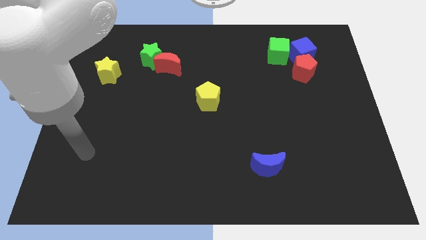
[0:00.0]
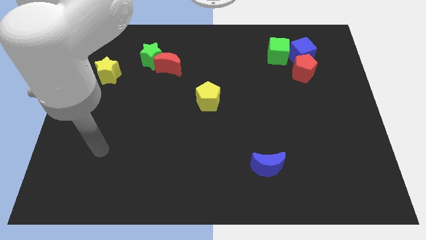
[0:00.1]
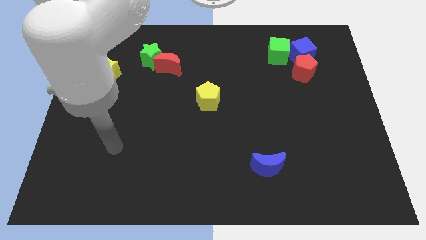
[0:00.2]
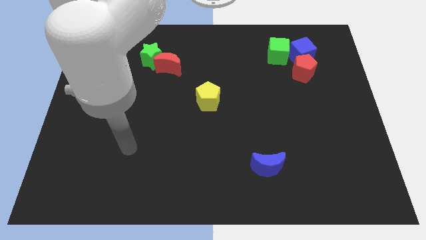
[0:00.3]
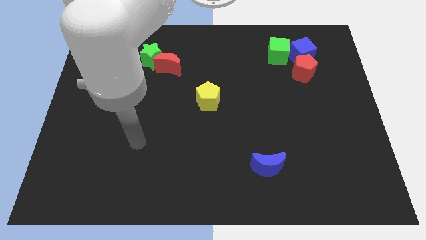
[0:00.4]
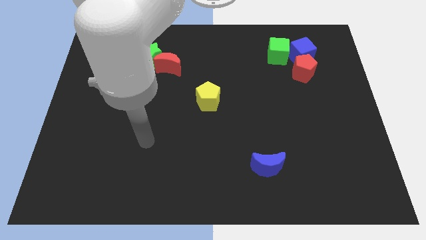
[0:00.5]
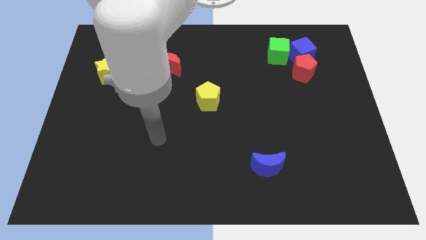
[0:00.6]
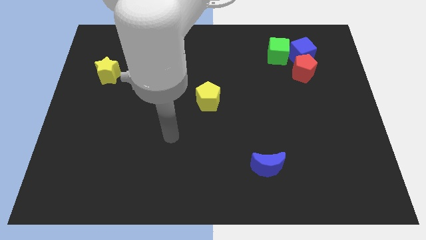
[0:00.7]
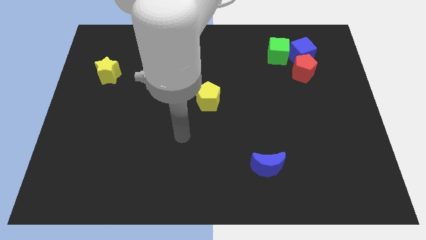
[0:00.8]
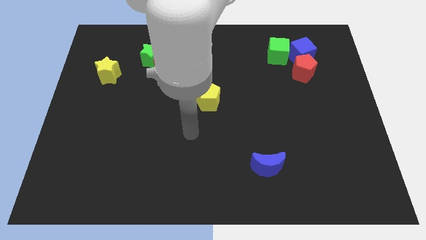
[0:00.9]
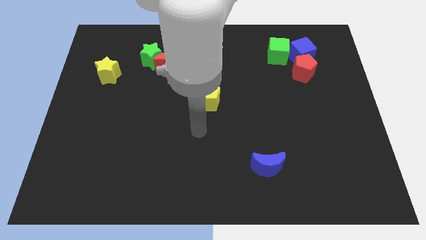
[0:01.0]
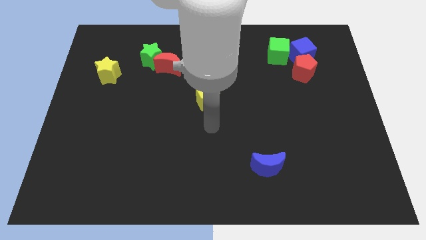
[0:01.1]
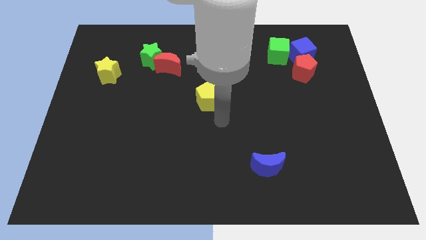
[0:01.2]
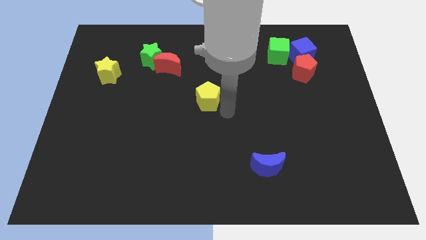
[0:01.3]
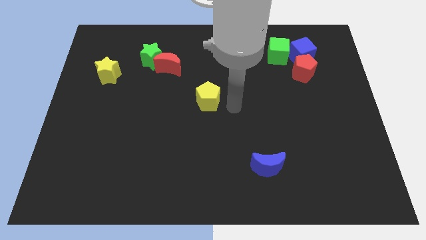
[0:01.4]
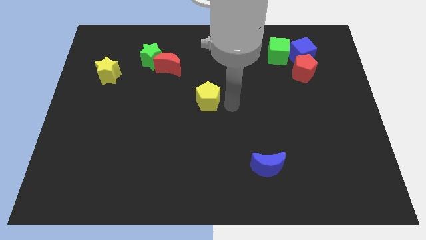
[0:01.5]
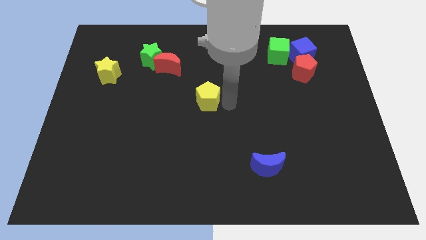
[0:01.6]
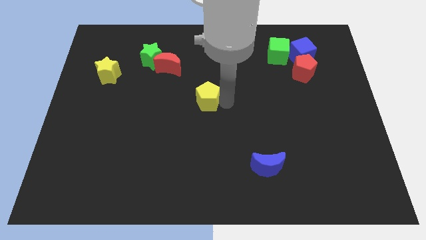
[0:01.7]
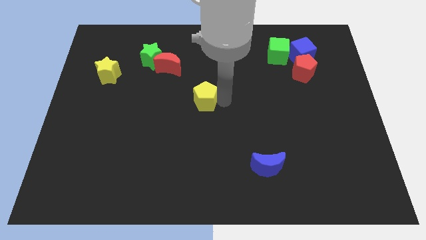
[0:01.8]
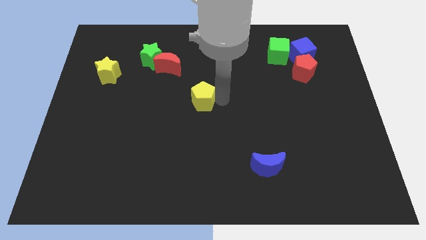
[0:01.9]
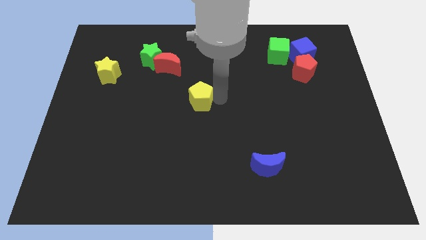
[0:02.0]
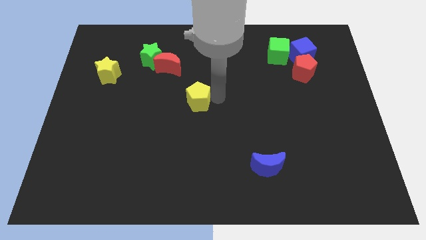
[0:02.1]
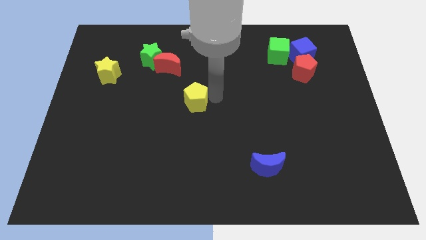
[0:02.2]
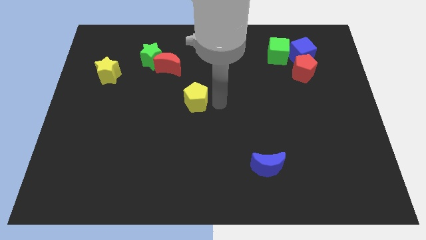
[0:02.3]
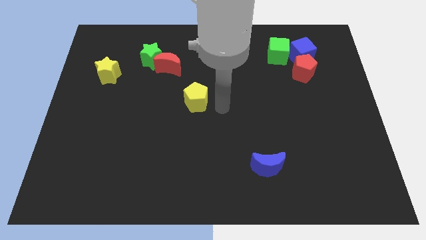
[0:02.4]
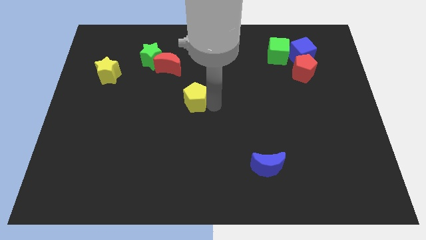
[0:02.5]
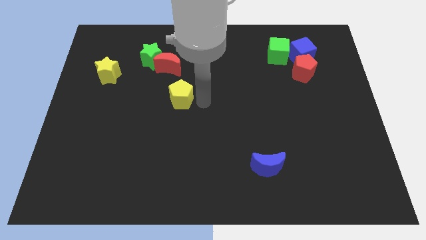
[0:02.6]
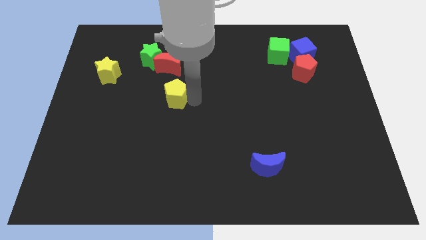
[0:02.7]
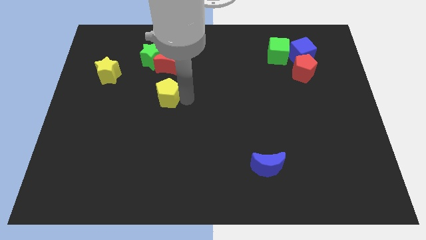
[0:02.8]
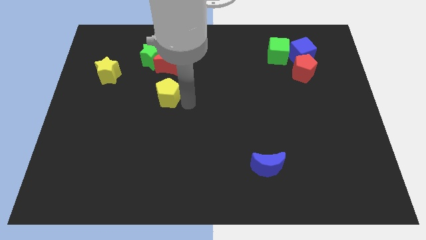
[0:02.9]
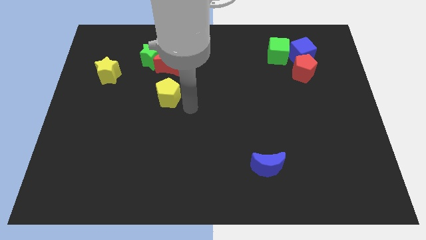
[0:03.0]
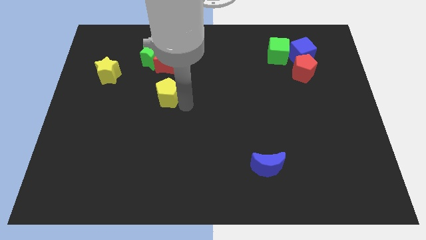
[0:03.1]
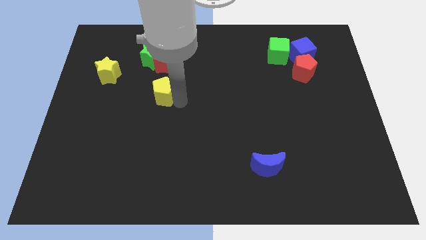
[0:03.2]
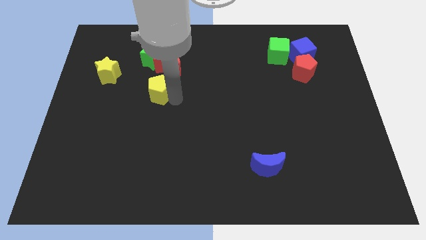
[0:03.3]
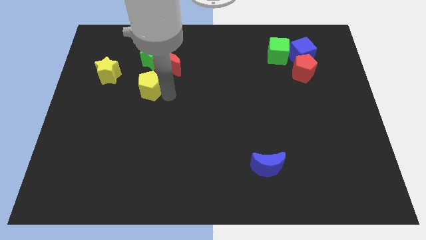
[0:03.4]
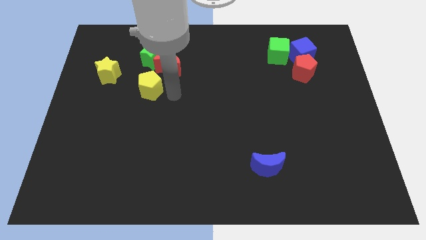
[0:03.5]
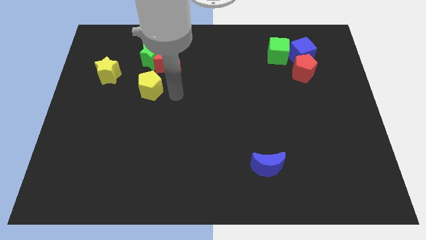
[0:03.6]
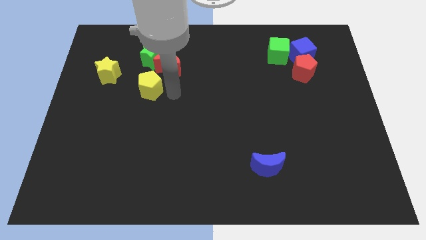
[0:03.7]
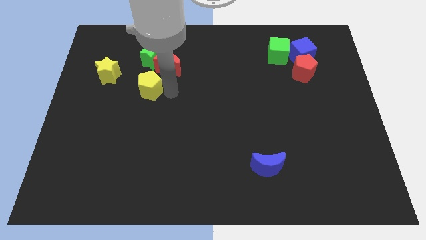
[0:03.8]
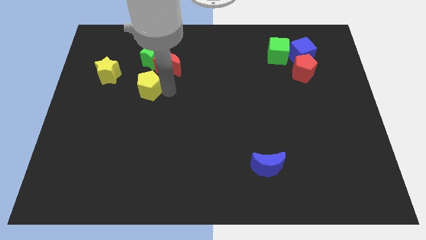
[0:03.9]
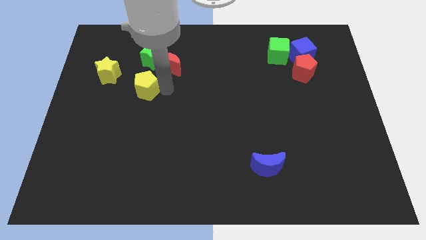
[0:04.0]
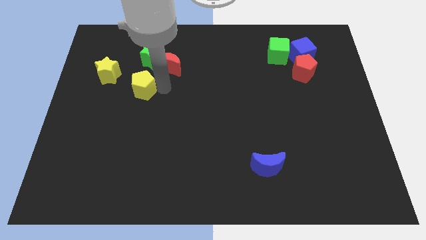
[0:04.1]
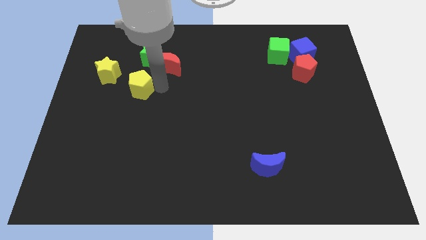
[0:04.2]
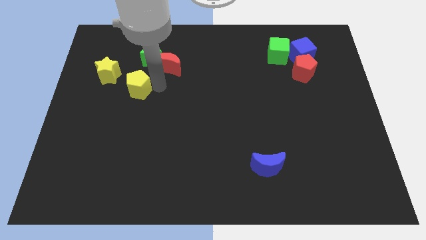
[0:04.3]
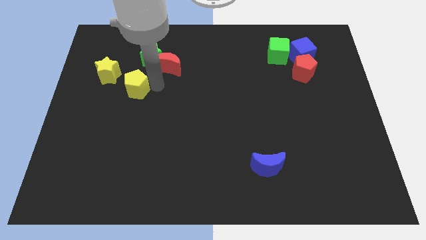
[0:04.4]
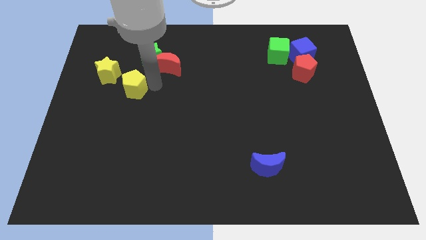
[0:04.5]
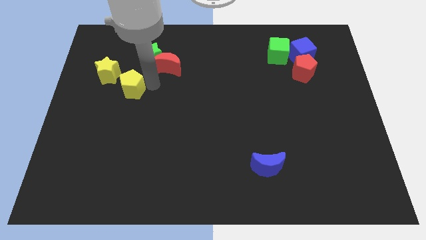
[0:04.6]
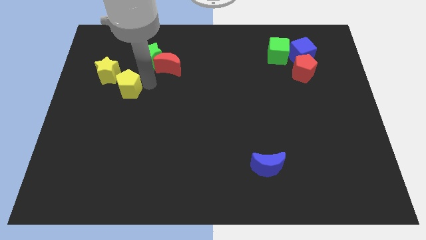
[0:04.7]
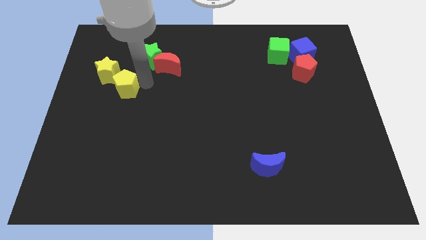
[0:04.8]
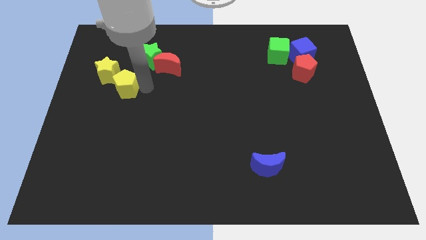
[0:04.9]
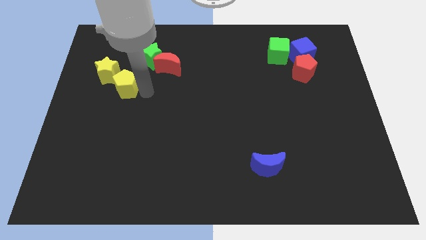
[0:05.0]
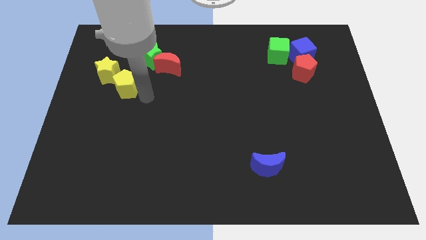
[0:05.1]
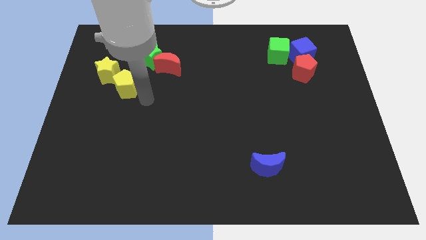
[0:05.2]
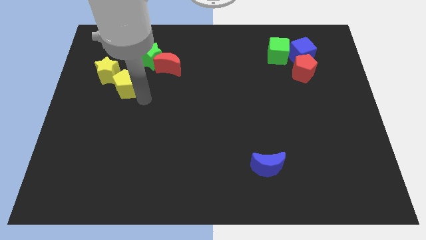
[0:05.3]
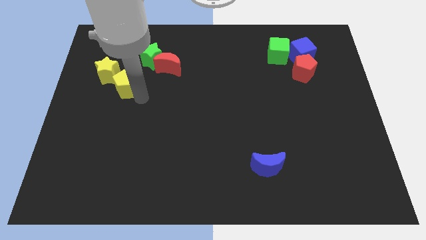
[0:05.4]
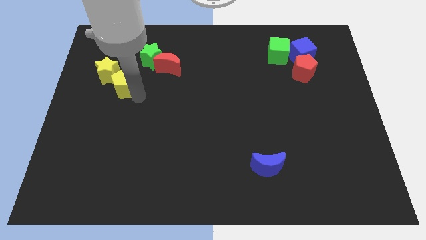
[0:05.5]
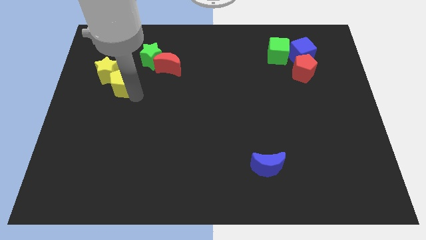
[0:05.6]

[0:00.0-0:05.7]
move the yellow pentagon close to the yellow star

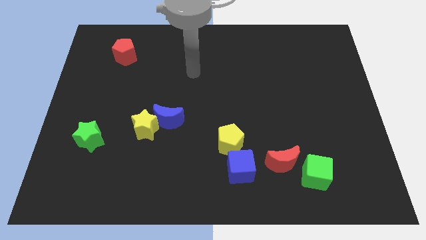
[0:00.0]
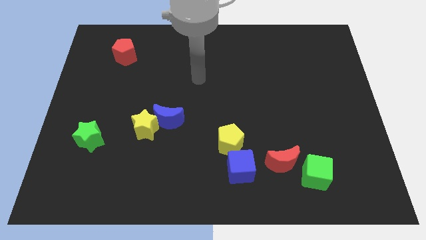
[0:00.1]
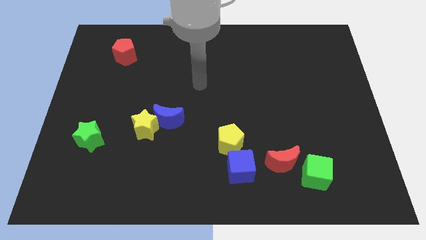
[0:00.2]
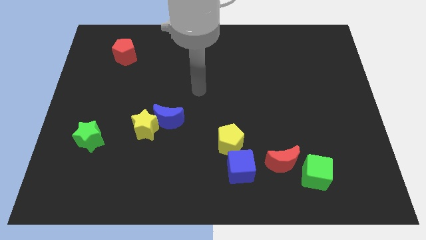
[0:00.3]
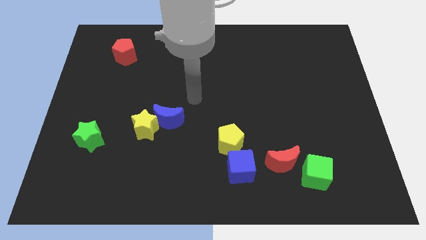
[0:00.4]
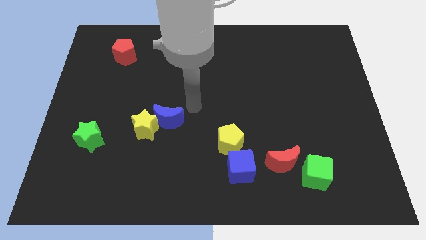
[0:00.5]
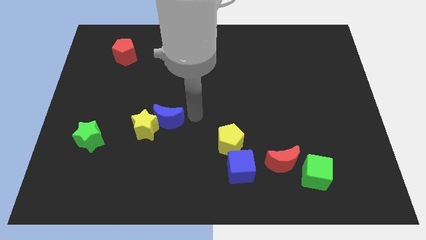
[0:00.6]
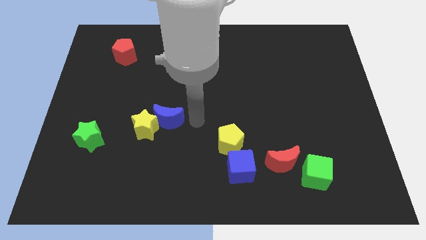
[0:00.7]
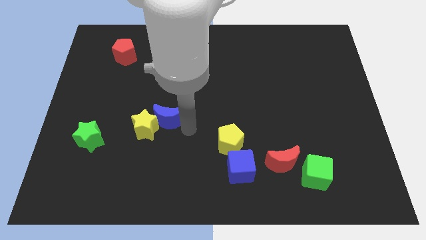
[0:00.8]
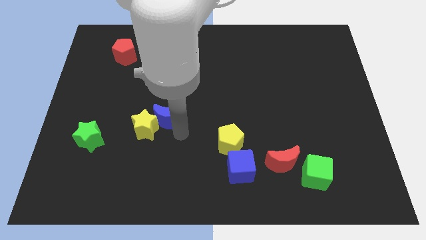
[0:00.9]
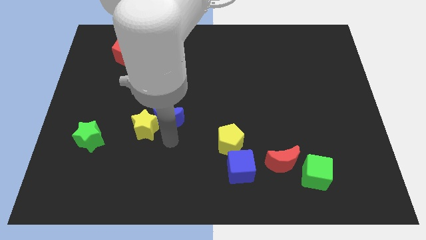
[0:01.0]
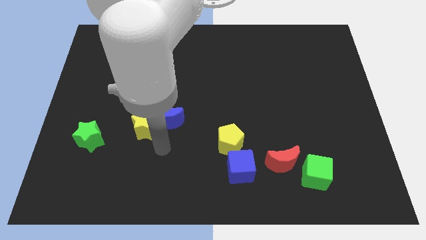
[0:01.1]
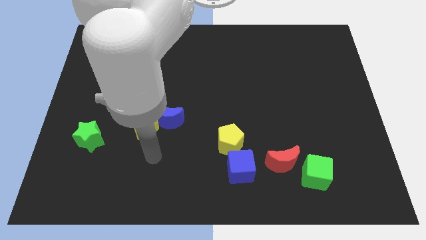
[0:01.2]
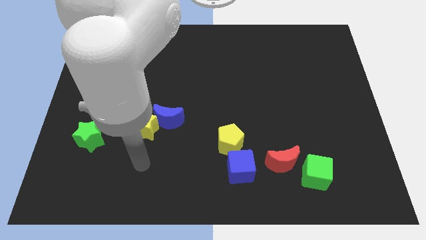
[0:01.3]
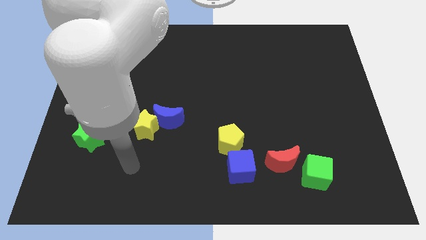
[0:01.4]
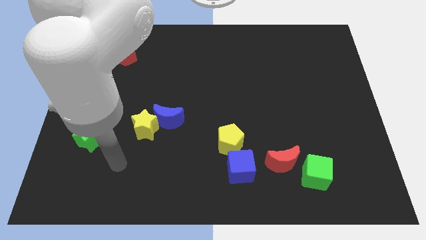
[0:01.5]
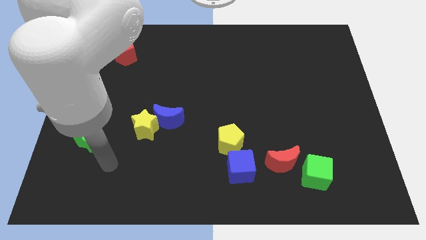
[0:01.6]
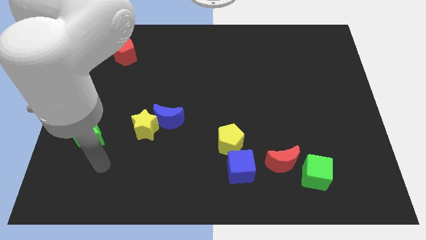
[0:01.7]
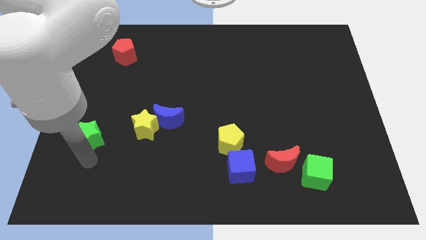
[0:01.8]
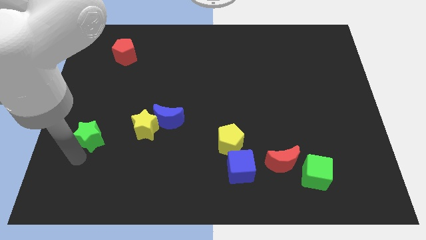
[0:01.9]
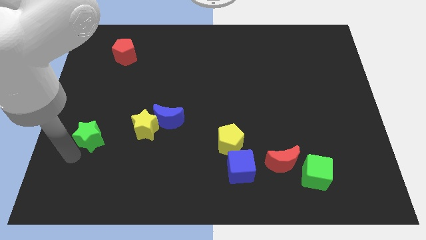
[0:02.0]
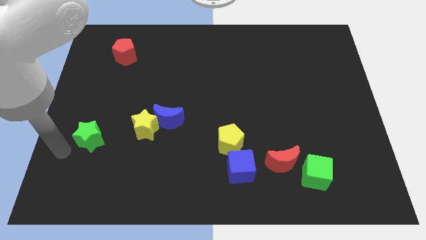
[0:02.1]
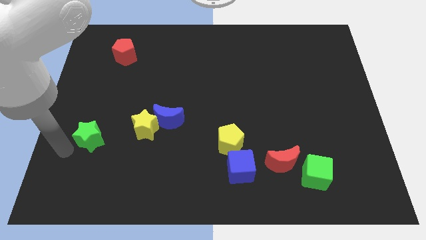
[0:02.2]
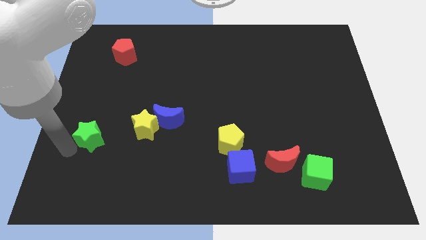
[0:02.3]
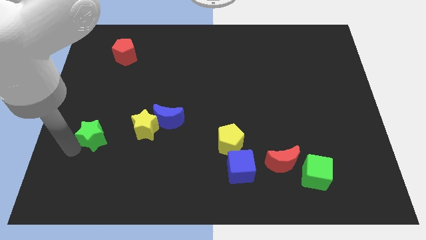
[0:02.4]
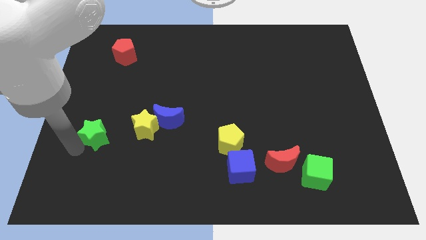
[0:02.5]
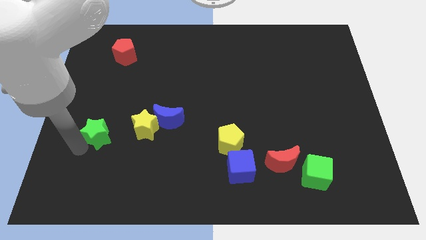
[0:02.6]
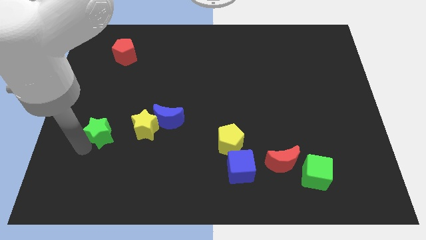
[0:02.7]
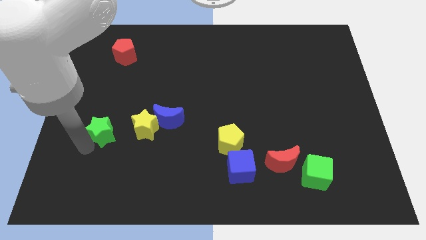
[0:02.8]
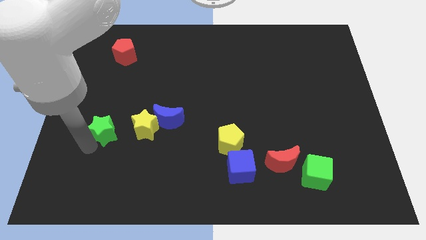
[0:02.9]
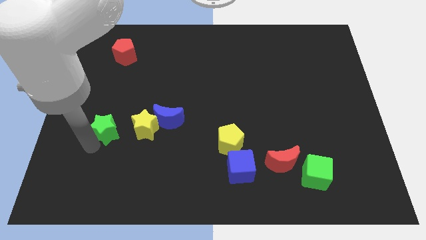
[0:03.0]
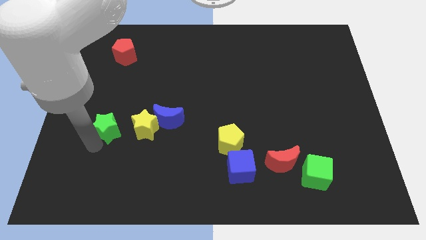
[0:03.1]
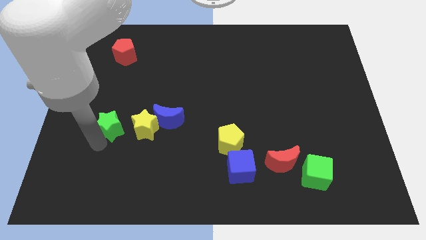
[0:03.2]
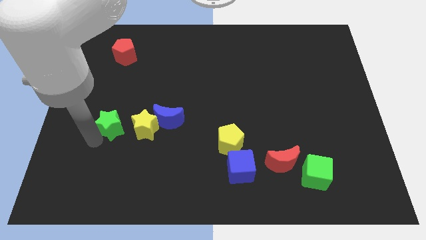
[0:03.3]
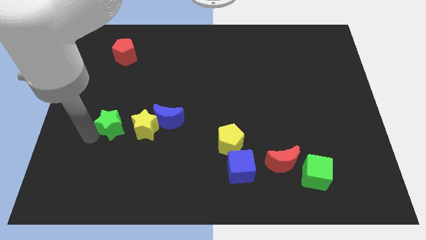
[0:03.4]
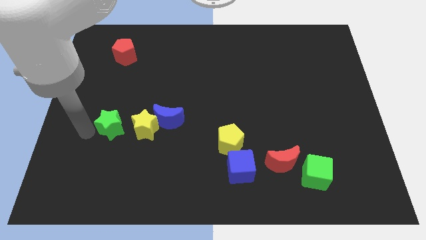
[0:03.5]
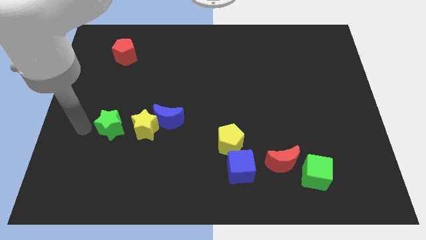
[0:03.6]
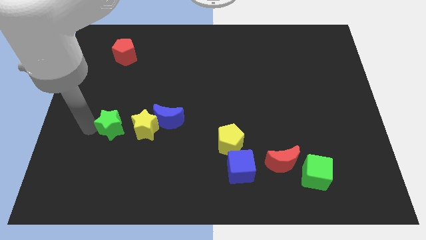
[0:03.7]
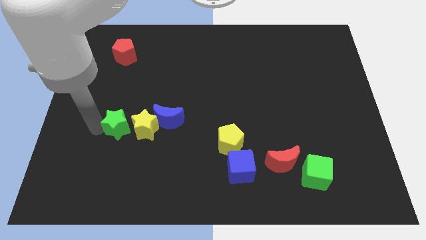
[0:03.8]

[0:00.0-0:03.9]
slide the green star close to the yellow star
